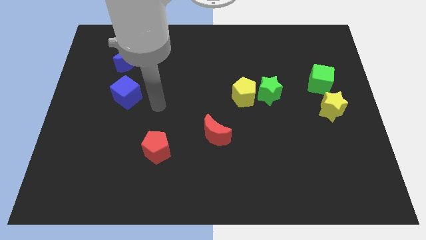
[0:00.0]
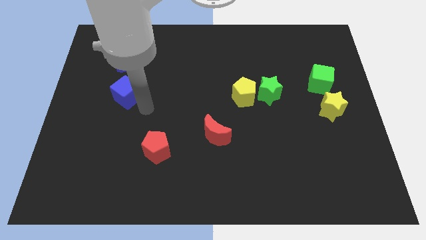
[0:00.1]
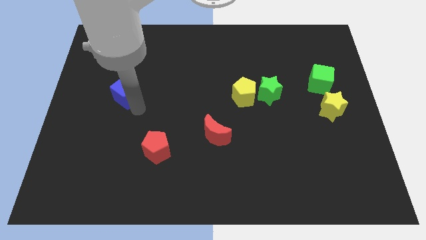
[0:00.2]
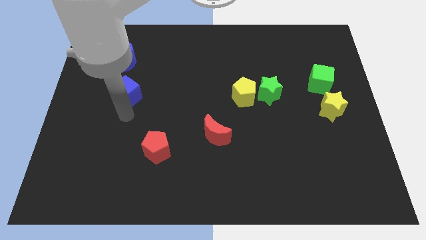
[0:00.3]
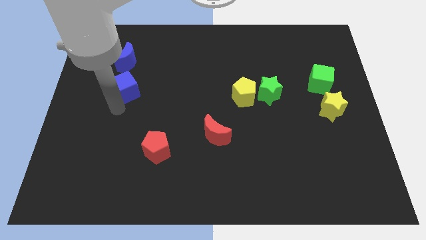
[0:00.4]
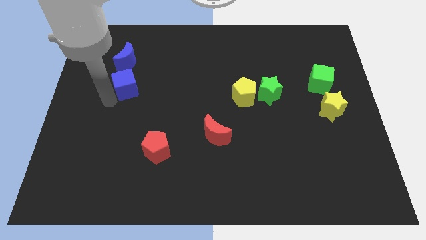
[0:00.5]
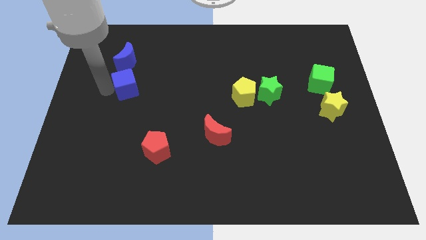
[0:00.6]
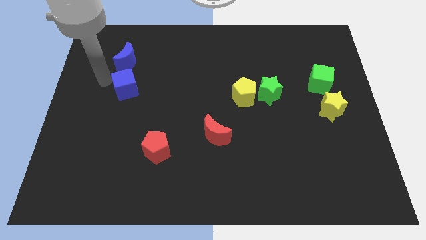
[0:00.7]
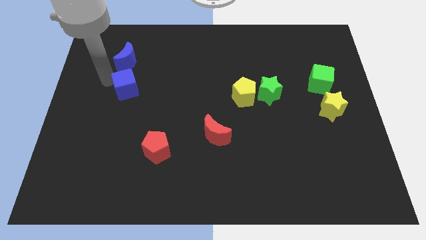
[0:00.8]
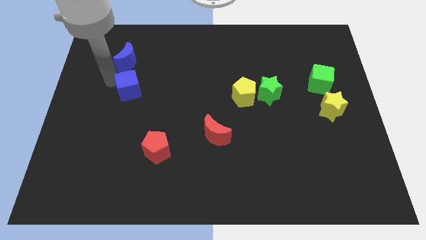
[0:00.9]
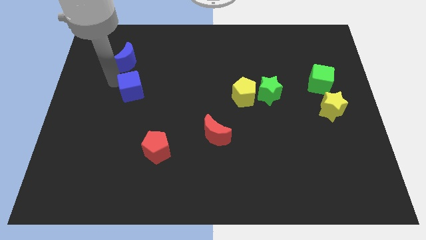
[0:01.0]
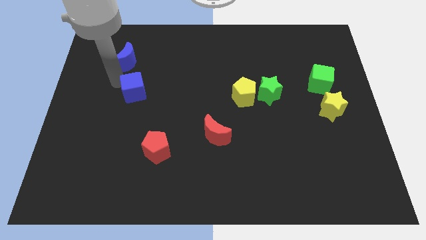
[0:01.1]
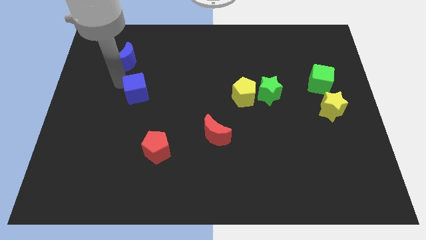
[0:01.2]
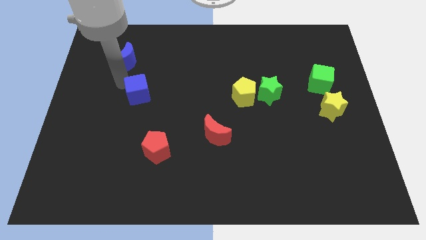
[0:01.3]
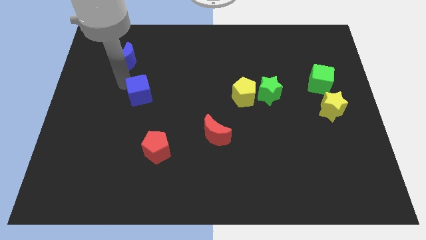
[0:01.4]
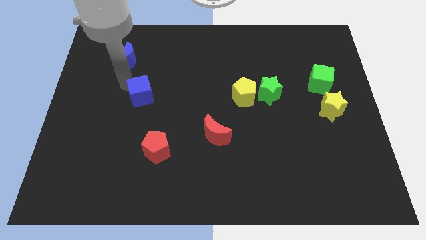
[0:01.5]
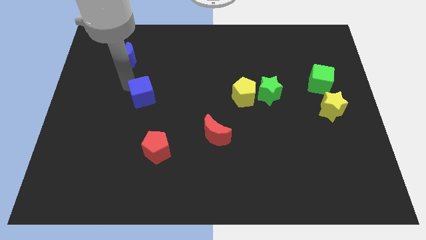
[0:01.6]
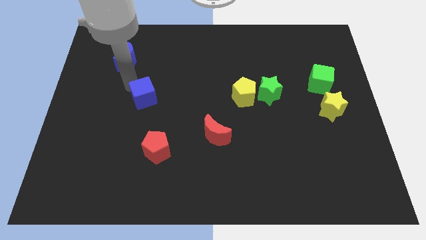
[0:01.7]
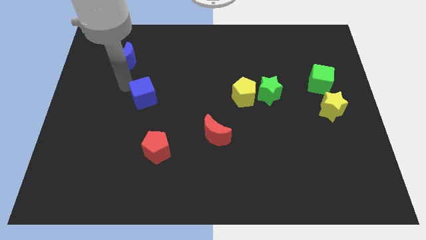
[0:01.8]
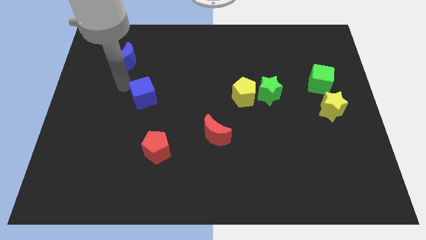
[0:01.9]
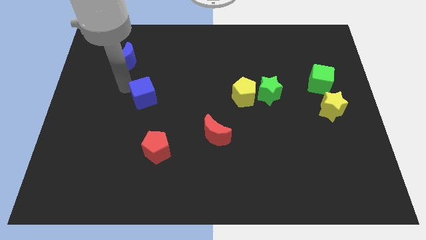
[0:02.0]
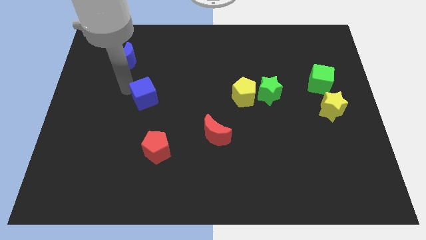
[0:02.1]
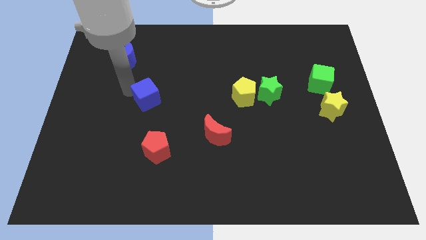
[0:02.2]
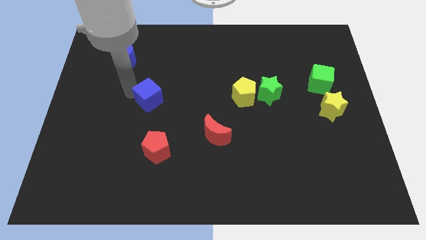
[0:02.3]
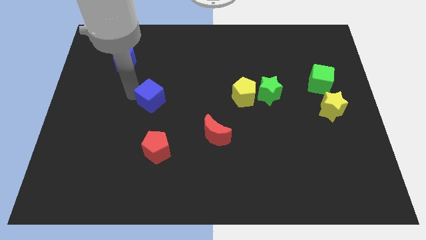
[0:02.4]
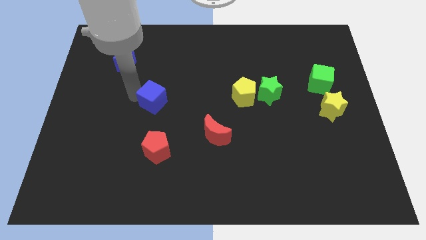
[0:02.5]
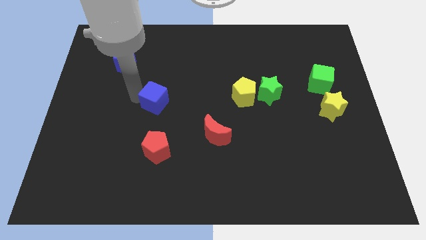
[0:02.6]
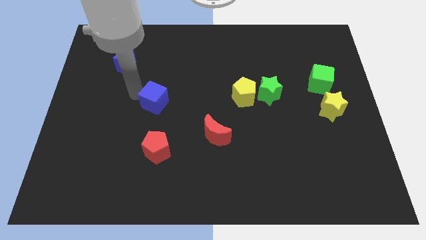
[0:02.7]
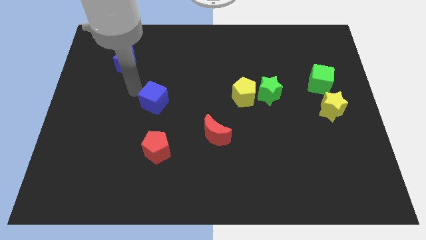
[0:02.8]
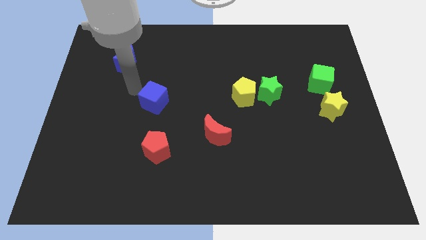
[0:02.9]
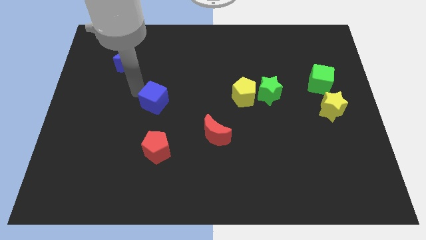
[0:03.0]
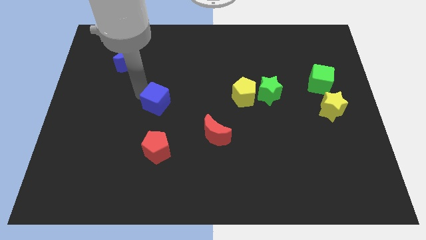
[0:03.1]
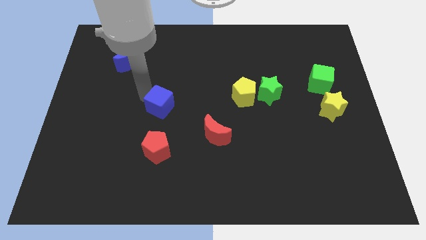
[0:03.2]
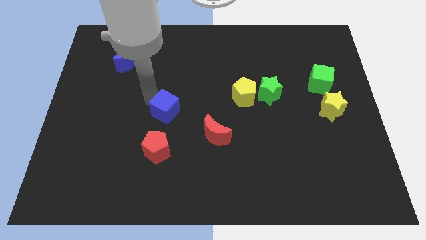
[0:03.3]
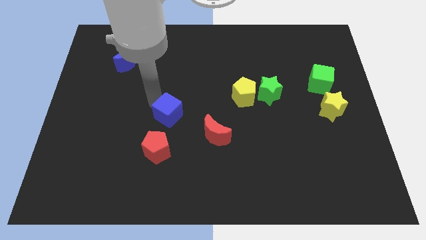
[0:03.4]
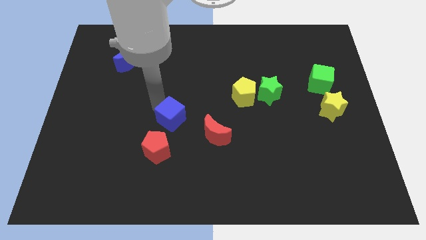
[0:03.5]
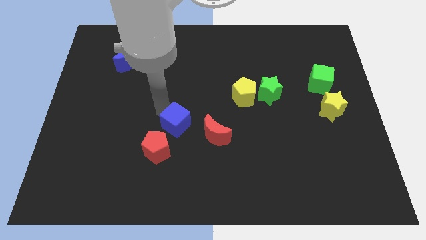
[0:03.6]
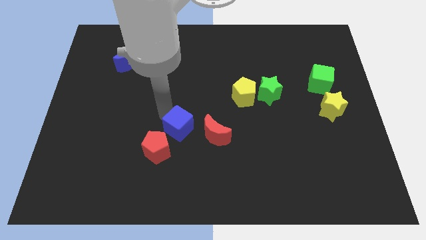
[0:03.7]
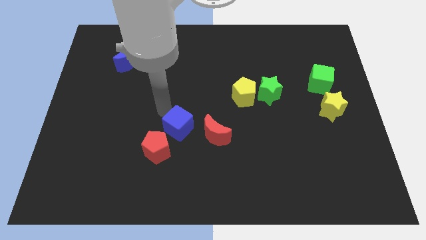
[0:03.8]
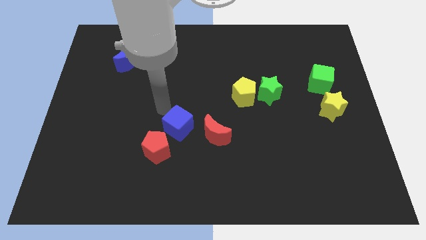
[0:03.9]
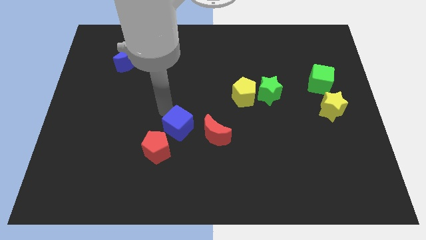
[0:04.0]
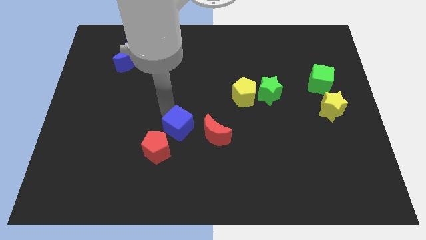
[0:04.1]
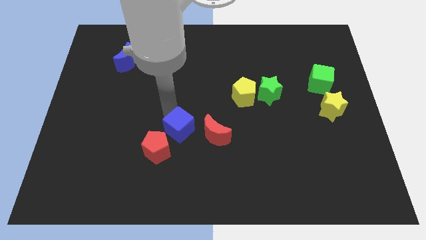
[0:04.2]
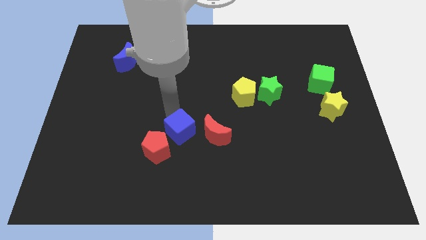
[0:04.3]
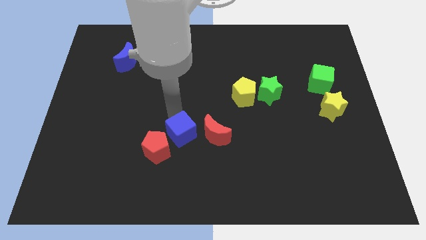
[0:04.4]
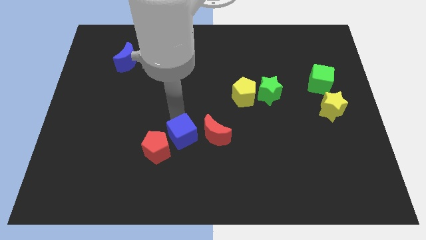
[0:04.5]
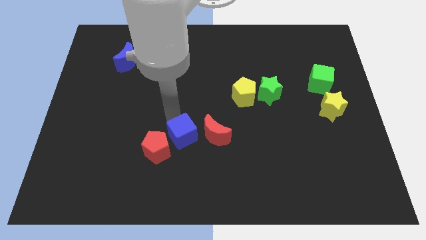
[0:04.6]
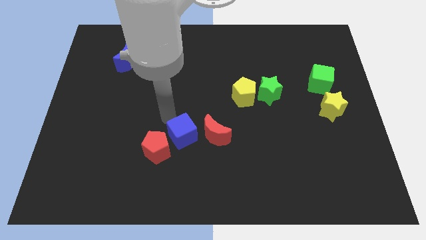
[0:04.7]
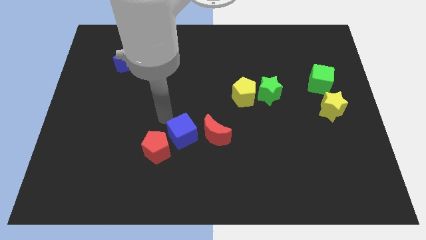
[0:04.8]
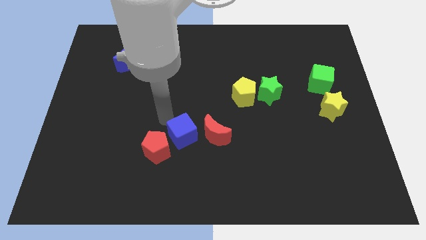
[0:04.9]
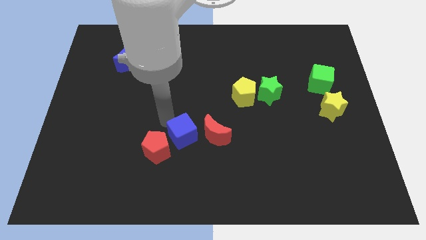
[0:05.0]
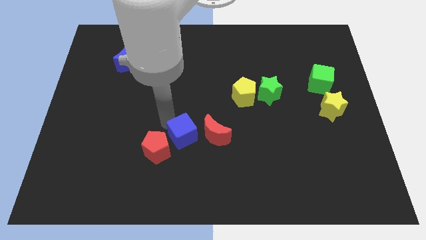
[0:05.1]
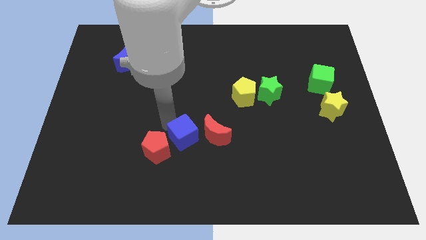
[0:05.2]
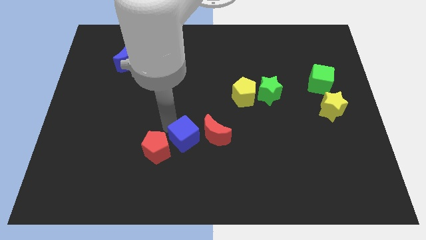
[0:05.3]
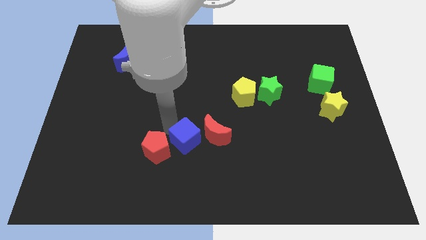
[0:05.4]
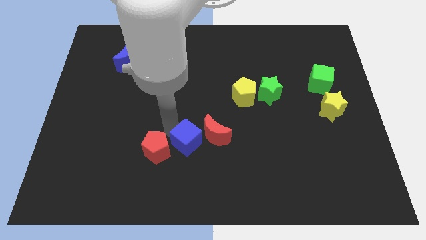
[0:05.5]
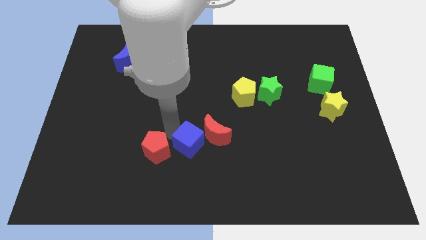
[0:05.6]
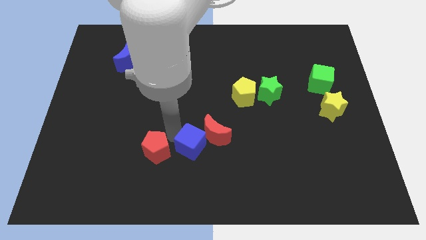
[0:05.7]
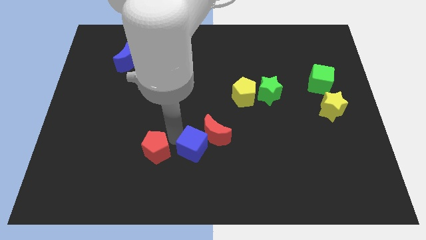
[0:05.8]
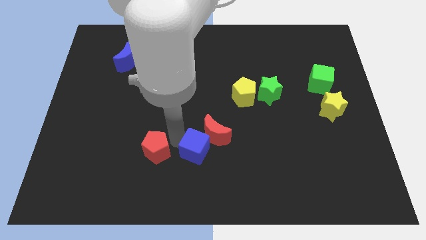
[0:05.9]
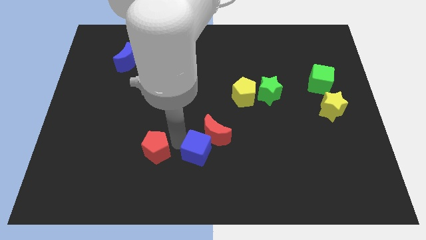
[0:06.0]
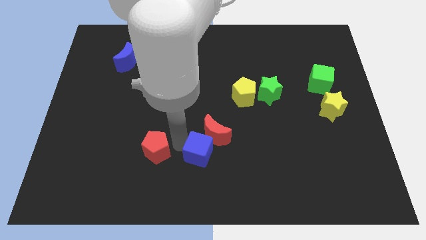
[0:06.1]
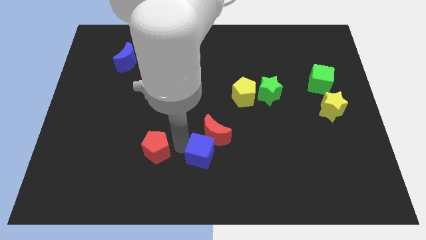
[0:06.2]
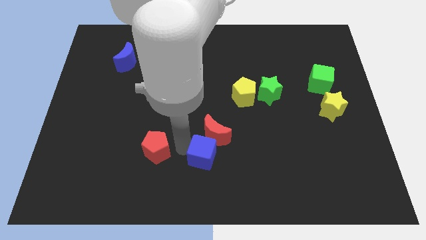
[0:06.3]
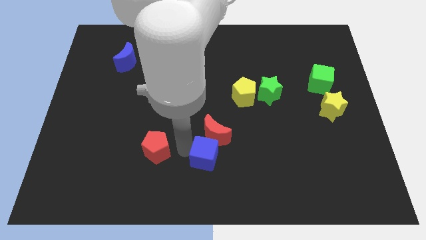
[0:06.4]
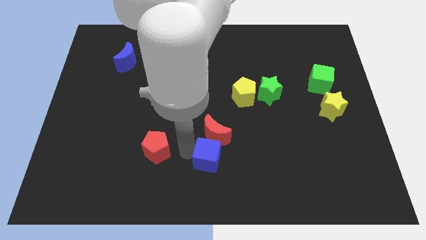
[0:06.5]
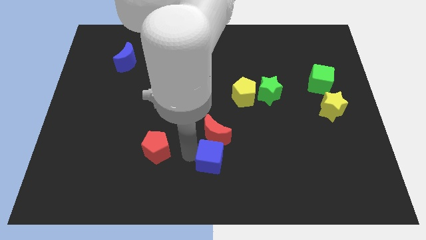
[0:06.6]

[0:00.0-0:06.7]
slide the blue cube to the bottom right side of the red moon

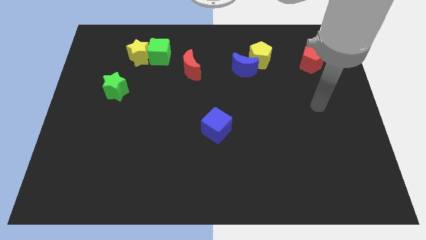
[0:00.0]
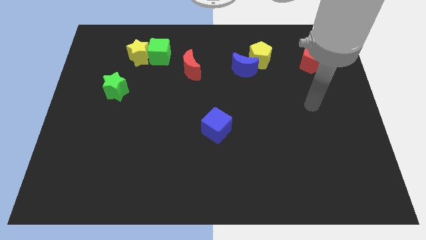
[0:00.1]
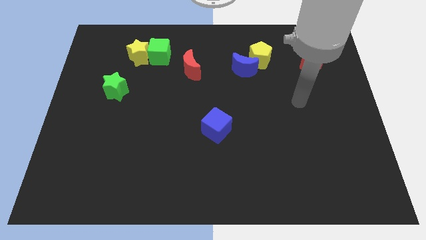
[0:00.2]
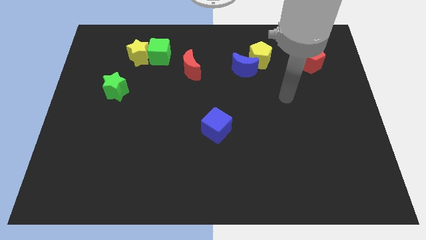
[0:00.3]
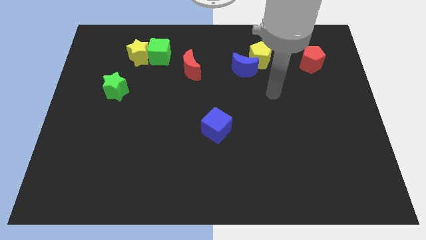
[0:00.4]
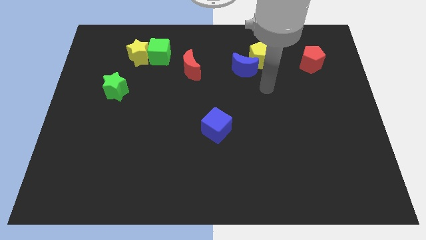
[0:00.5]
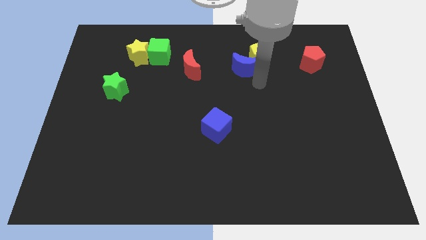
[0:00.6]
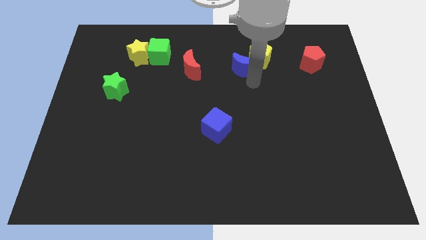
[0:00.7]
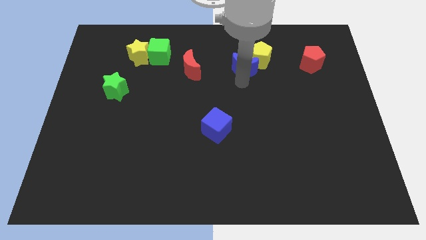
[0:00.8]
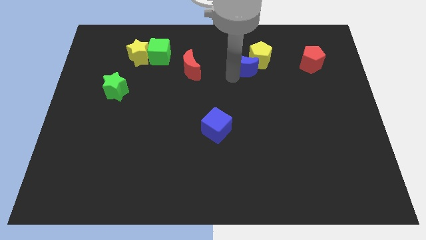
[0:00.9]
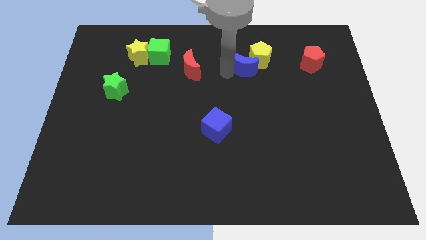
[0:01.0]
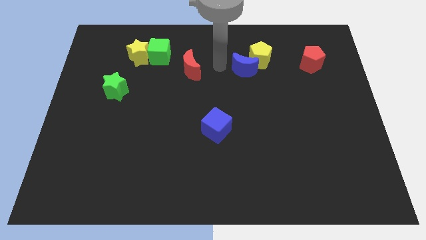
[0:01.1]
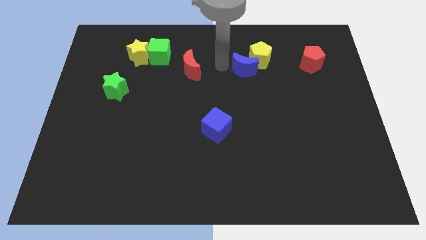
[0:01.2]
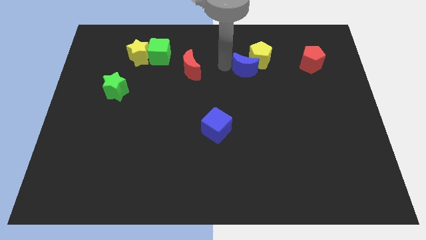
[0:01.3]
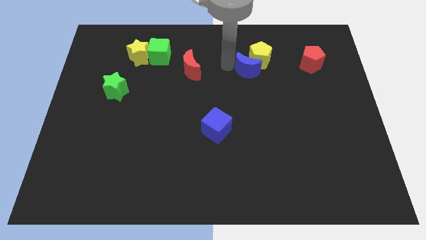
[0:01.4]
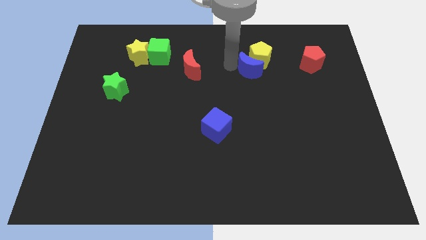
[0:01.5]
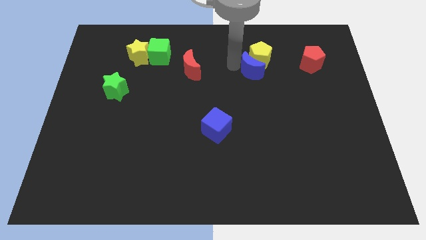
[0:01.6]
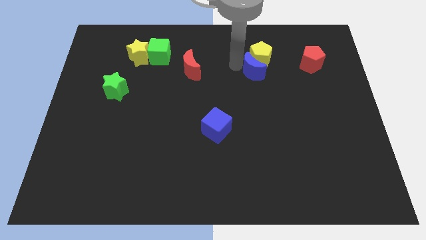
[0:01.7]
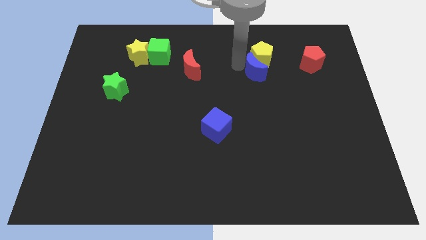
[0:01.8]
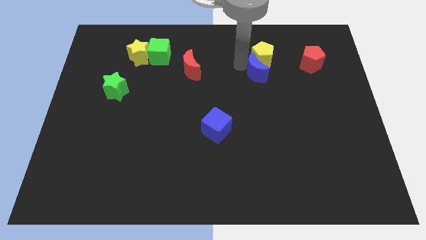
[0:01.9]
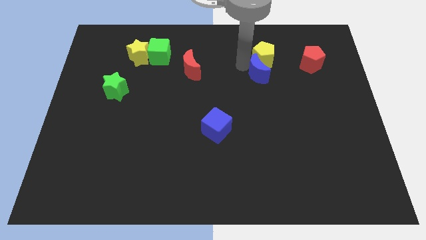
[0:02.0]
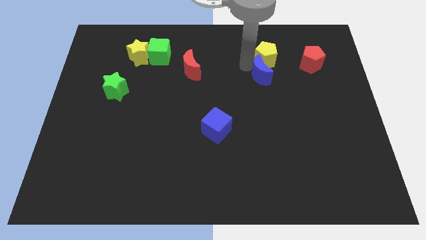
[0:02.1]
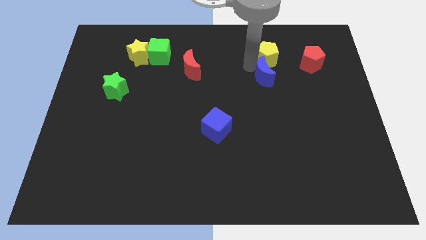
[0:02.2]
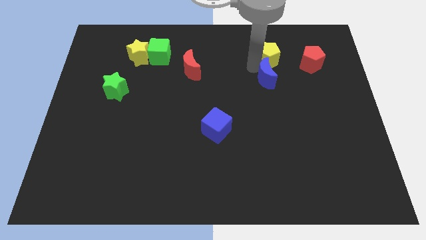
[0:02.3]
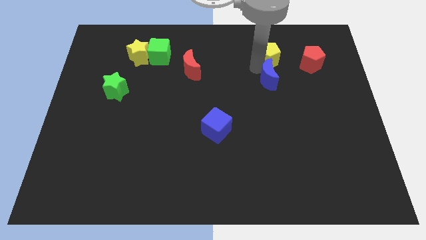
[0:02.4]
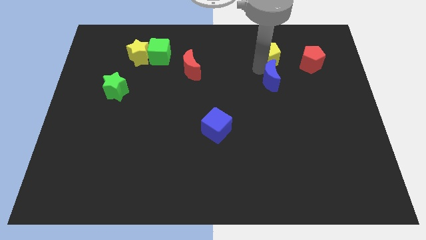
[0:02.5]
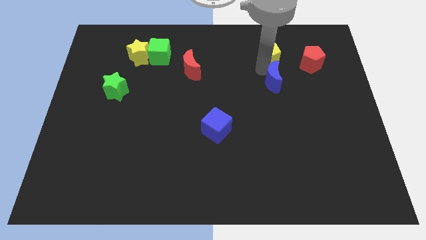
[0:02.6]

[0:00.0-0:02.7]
push the blue moon to the bottom left side of the red pentagon
